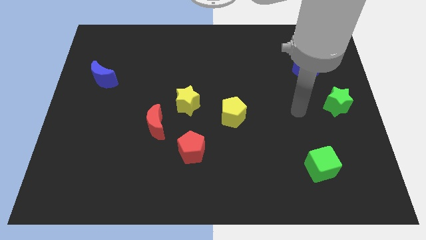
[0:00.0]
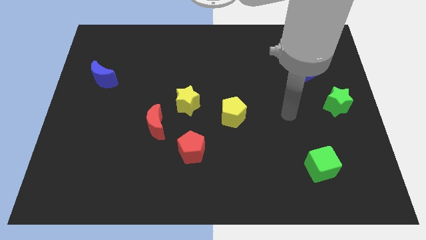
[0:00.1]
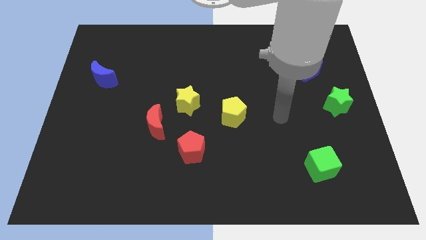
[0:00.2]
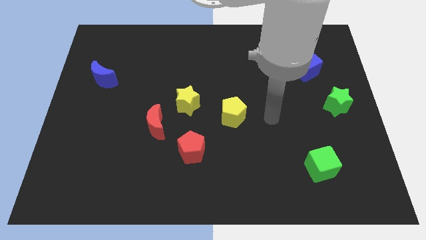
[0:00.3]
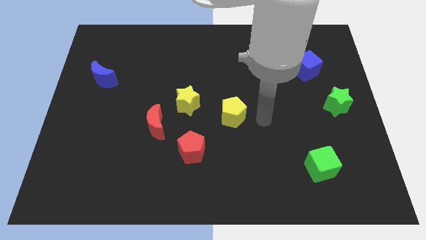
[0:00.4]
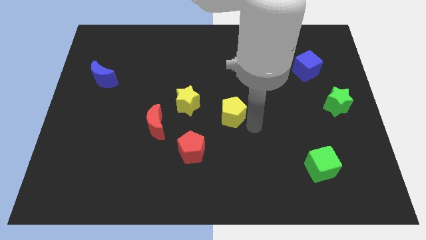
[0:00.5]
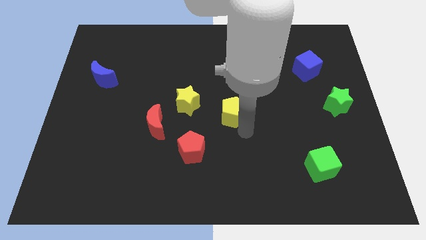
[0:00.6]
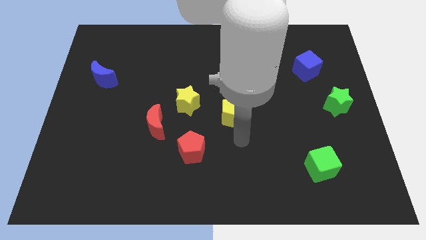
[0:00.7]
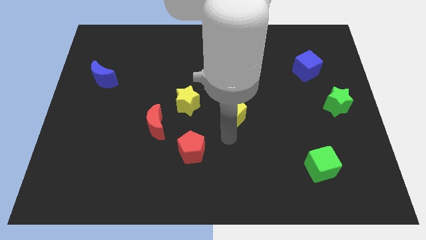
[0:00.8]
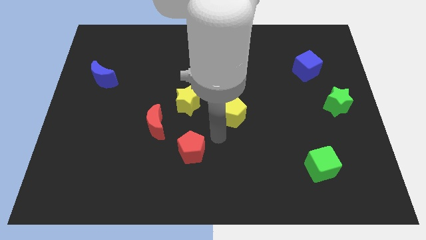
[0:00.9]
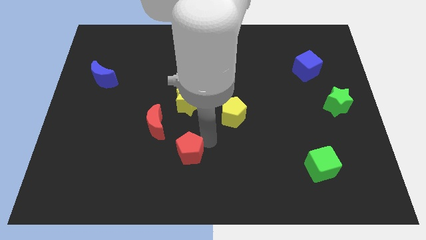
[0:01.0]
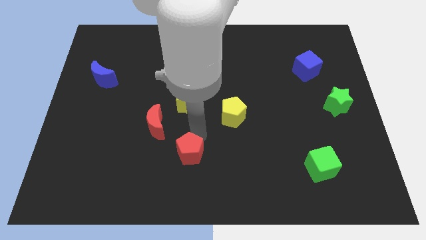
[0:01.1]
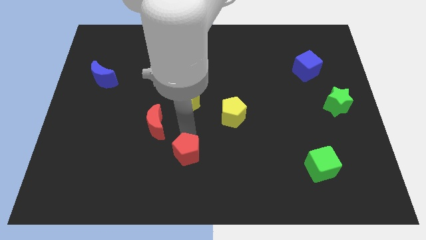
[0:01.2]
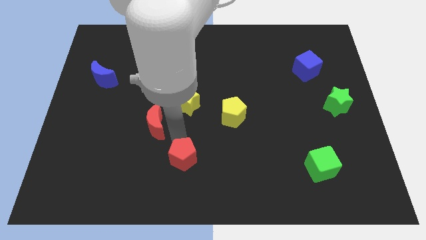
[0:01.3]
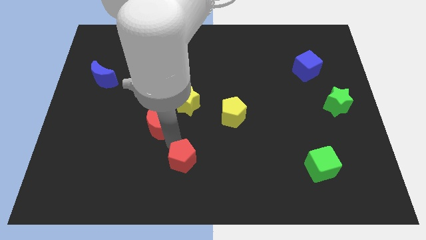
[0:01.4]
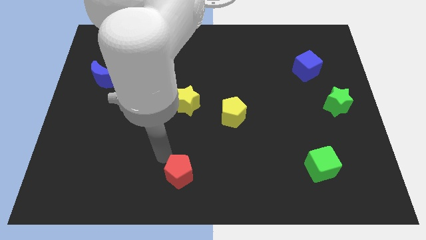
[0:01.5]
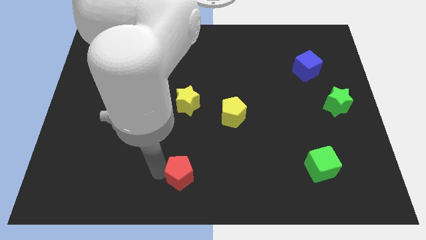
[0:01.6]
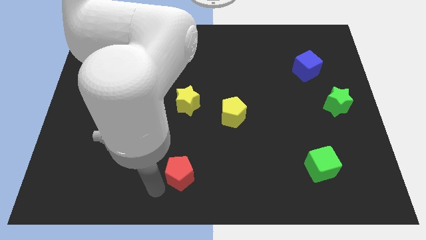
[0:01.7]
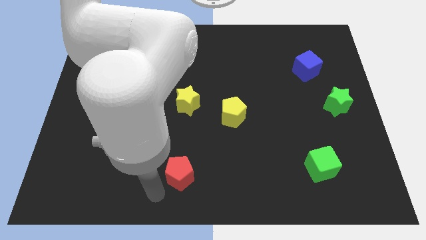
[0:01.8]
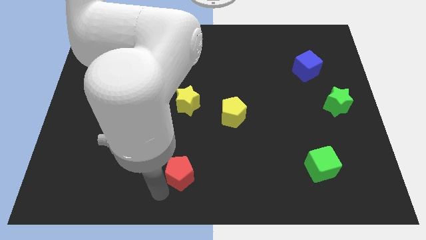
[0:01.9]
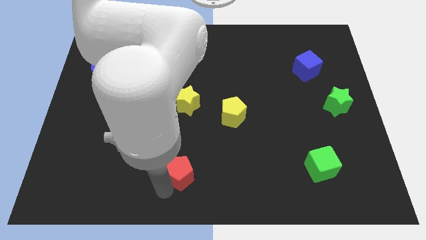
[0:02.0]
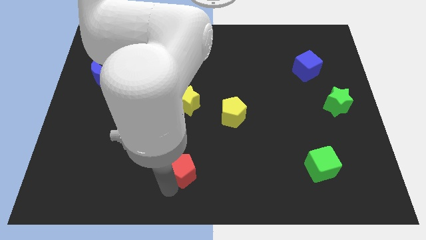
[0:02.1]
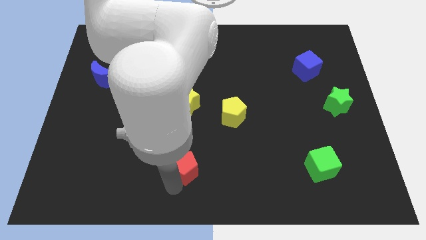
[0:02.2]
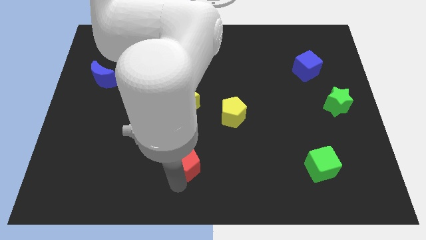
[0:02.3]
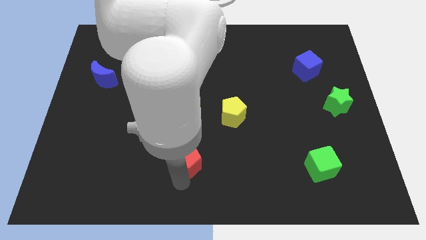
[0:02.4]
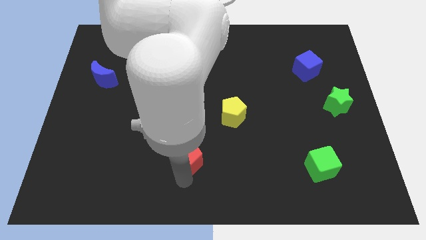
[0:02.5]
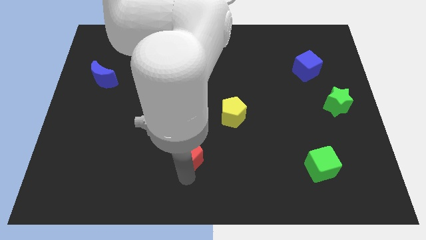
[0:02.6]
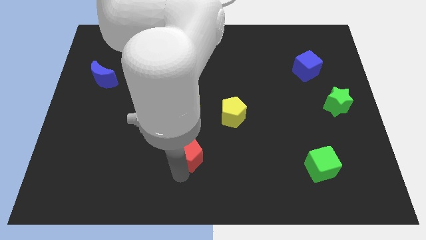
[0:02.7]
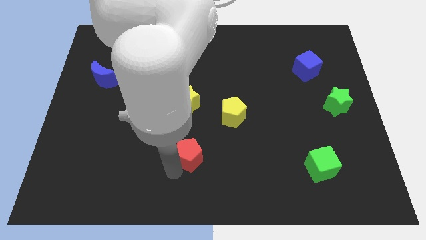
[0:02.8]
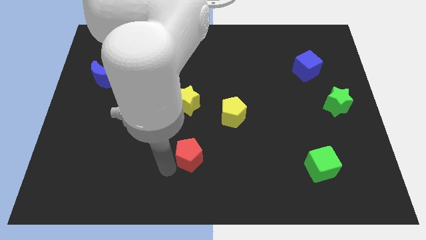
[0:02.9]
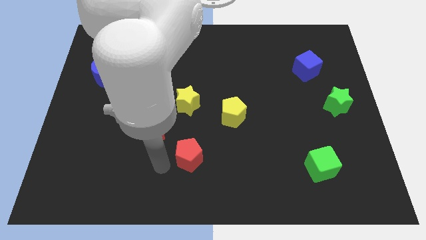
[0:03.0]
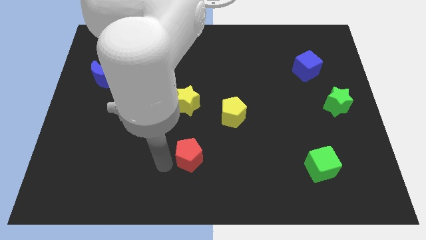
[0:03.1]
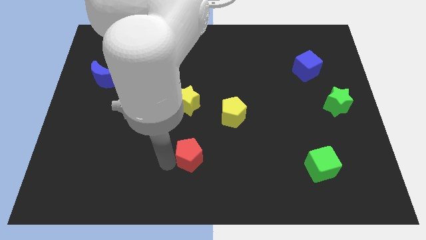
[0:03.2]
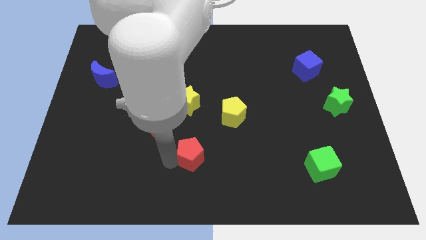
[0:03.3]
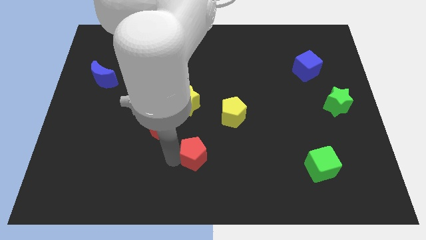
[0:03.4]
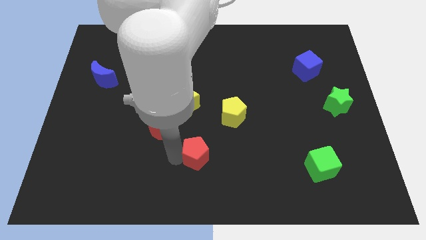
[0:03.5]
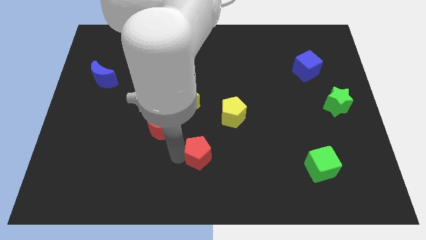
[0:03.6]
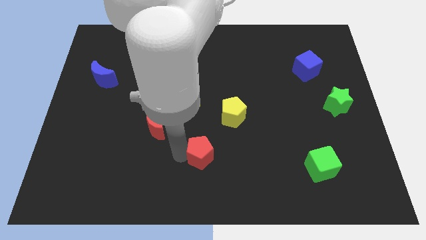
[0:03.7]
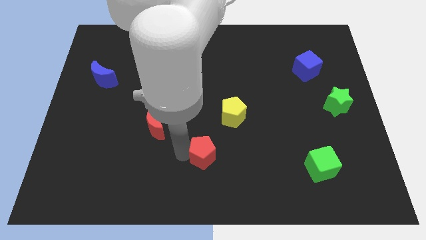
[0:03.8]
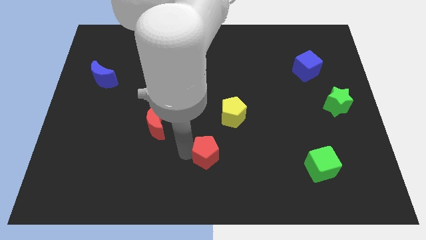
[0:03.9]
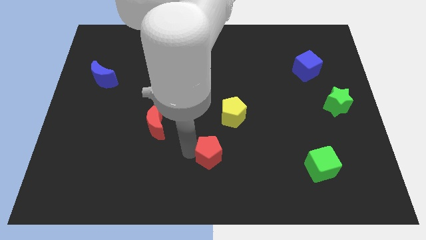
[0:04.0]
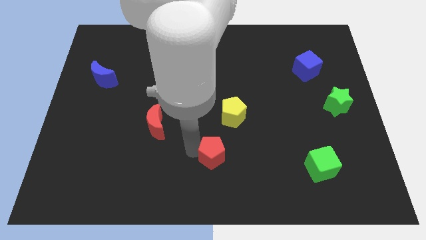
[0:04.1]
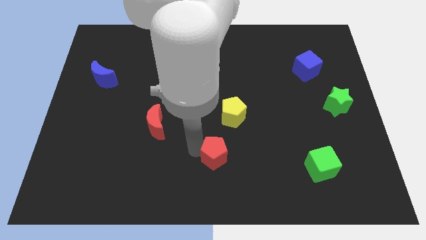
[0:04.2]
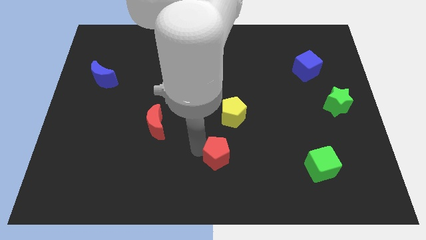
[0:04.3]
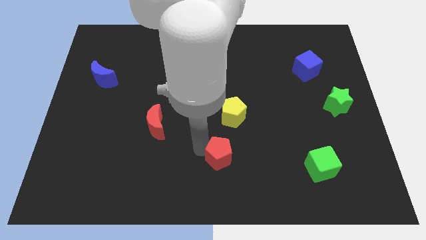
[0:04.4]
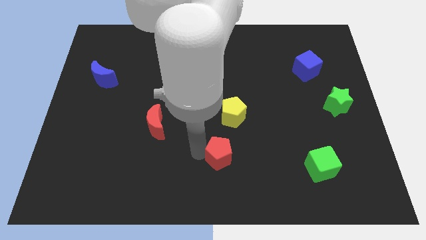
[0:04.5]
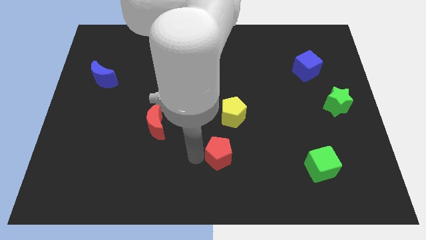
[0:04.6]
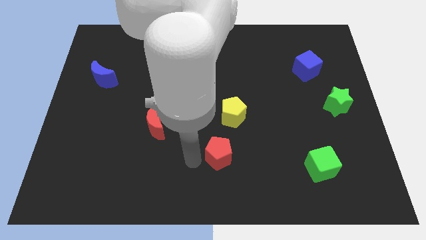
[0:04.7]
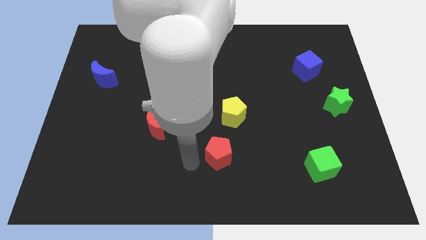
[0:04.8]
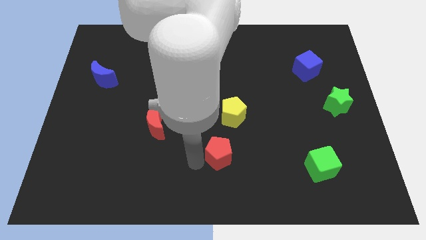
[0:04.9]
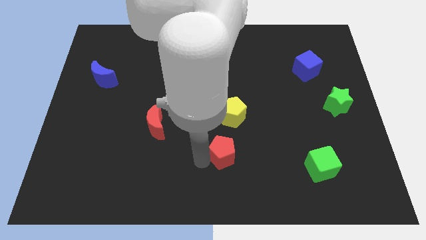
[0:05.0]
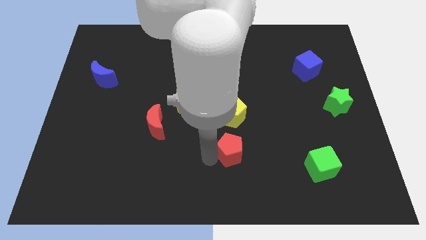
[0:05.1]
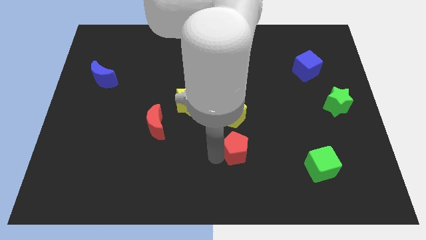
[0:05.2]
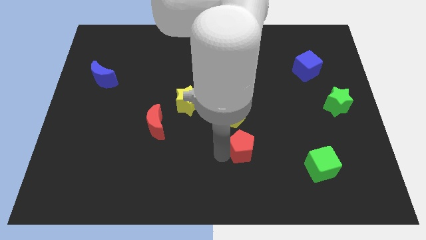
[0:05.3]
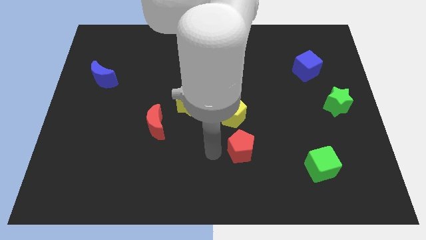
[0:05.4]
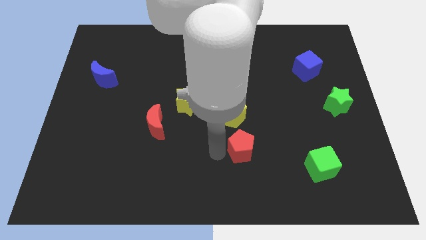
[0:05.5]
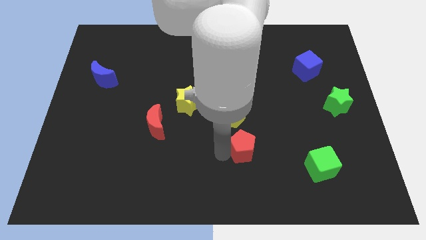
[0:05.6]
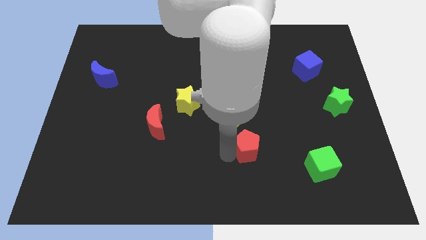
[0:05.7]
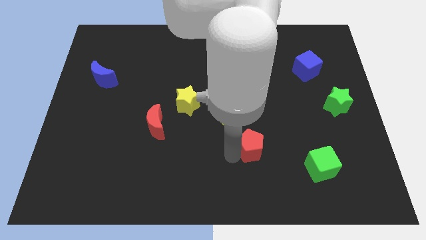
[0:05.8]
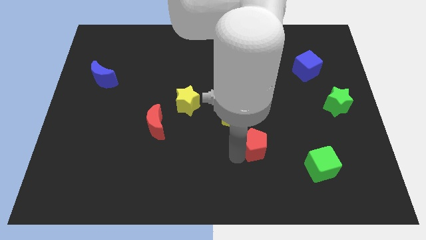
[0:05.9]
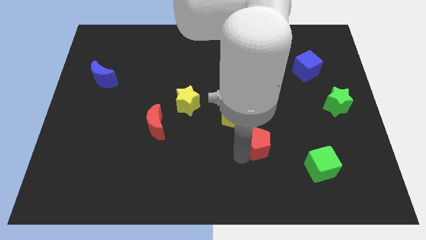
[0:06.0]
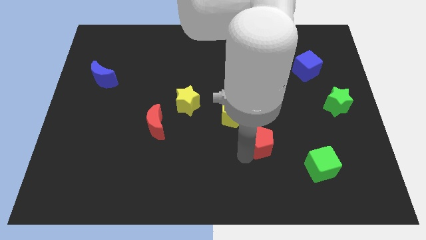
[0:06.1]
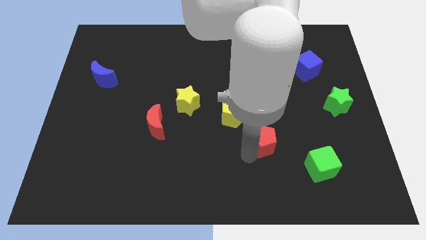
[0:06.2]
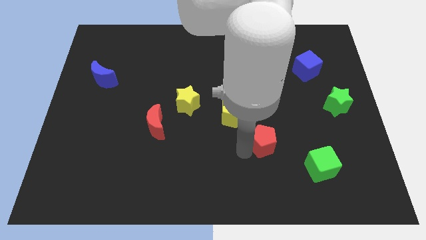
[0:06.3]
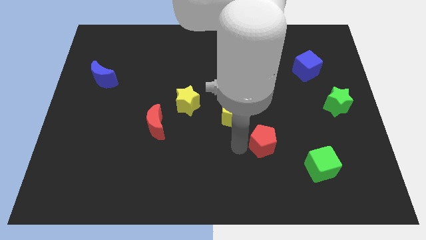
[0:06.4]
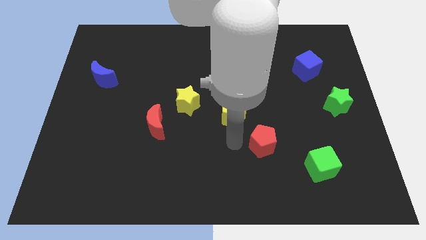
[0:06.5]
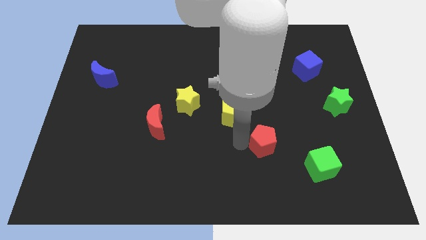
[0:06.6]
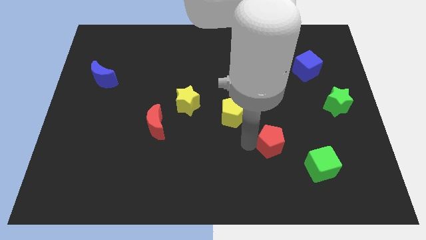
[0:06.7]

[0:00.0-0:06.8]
put the red pentagon to the top left of the green cube

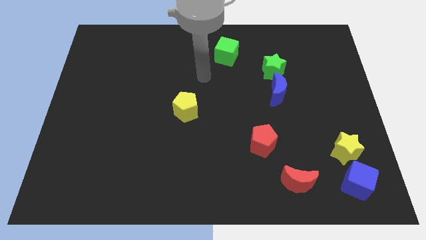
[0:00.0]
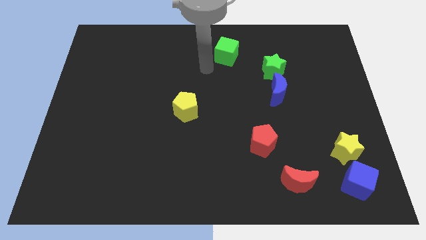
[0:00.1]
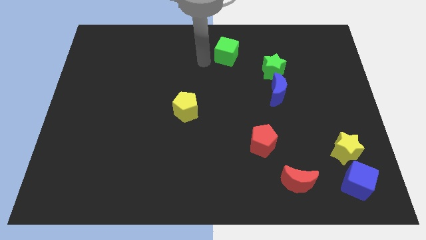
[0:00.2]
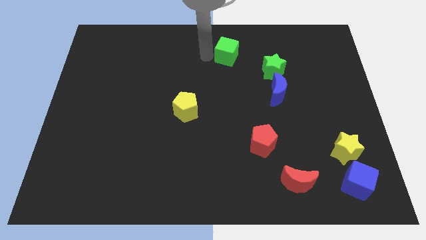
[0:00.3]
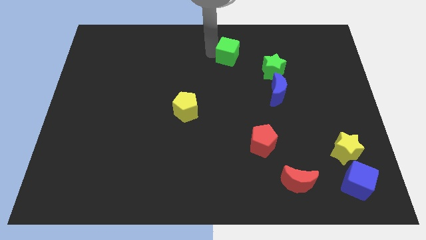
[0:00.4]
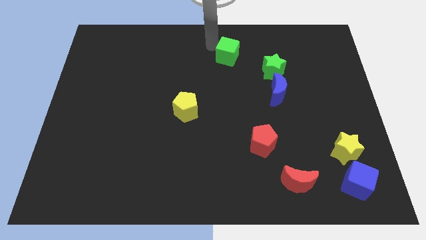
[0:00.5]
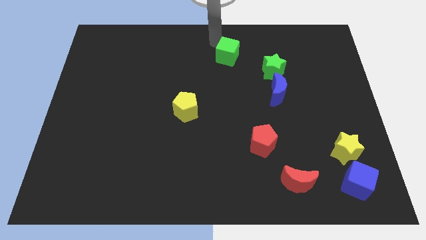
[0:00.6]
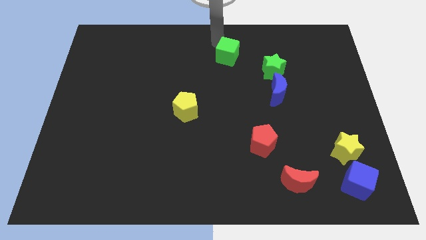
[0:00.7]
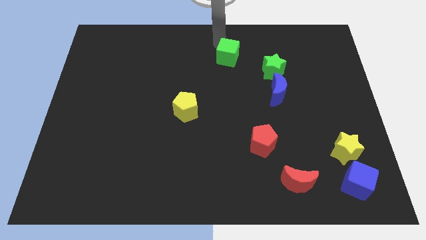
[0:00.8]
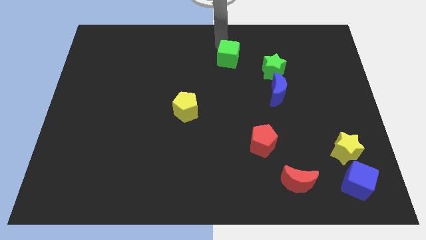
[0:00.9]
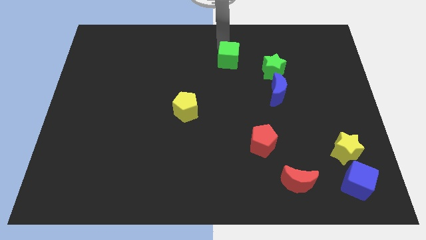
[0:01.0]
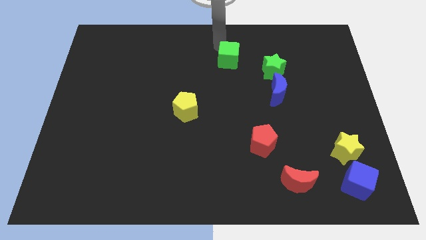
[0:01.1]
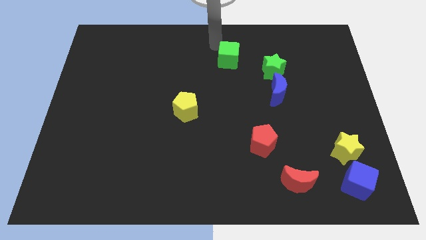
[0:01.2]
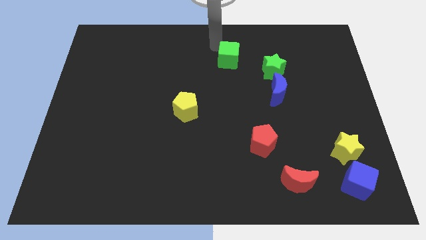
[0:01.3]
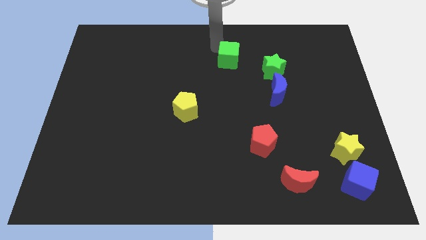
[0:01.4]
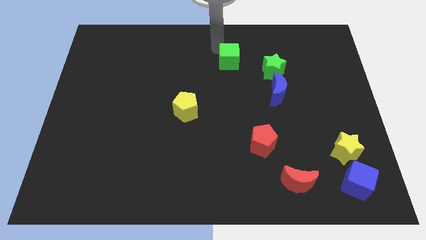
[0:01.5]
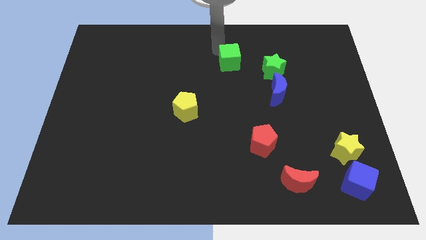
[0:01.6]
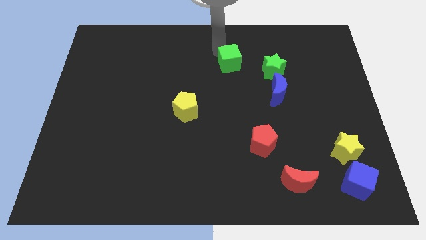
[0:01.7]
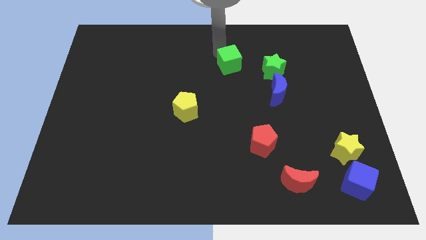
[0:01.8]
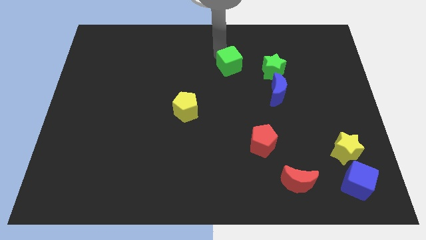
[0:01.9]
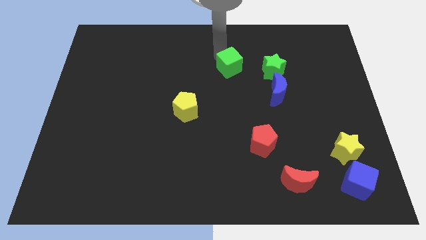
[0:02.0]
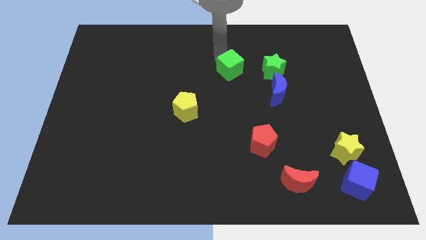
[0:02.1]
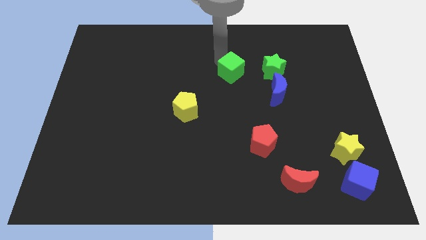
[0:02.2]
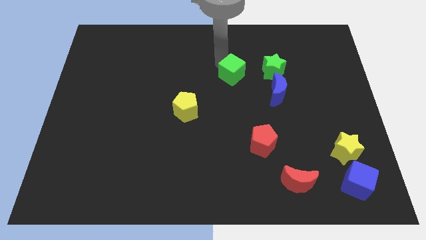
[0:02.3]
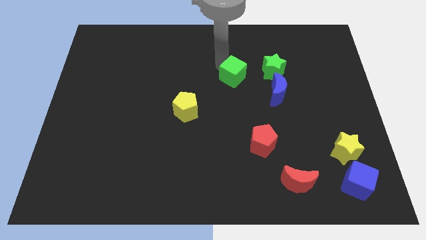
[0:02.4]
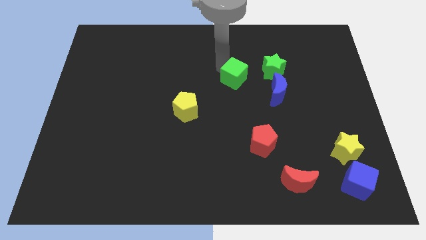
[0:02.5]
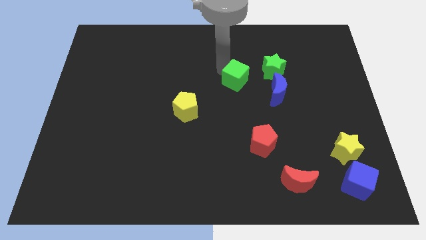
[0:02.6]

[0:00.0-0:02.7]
move the green cube to the bottom left of the green star
